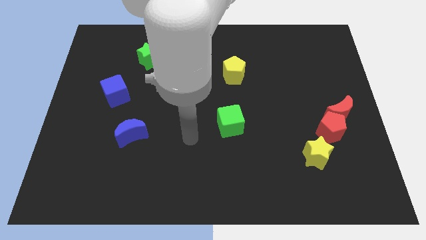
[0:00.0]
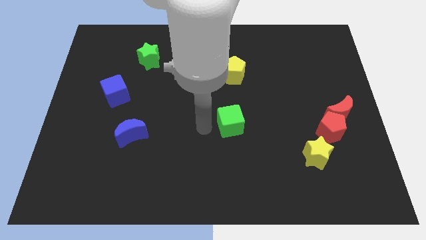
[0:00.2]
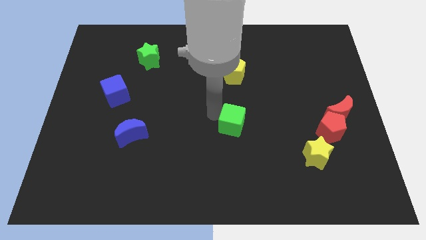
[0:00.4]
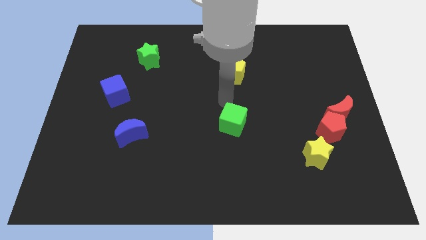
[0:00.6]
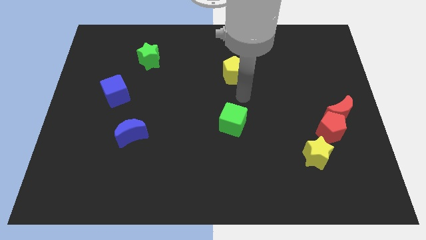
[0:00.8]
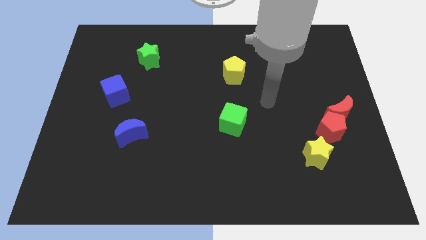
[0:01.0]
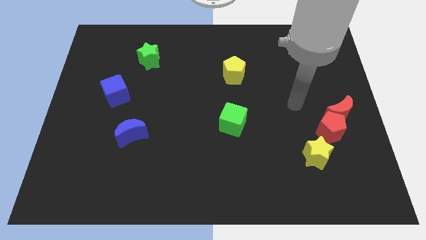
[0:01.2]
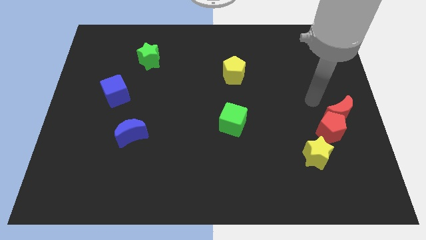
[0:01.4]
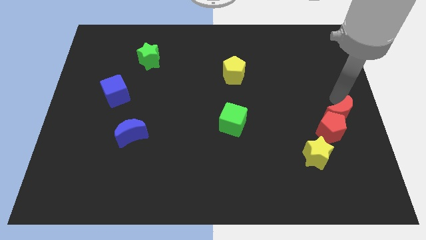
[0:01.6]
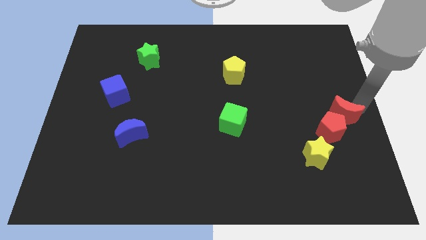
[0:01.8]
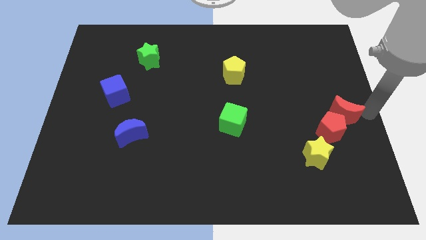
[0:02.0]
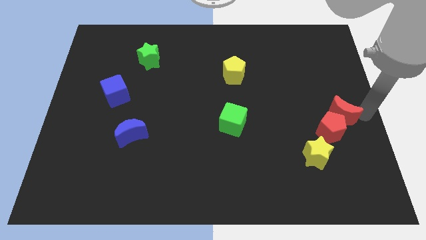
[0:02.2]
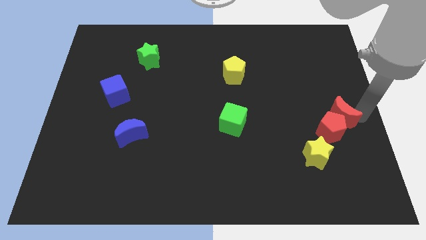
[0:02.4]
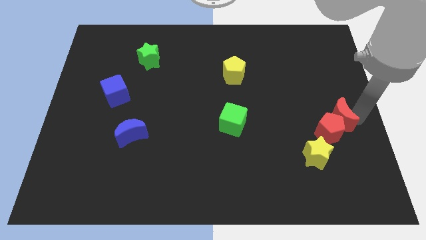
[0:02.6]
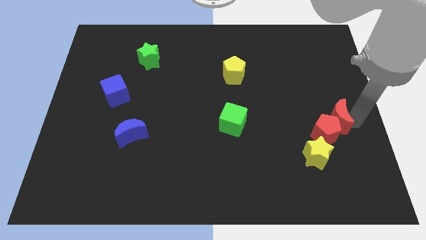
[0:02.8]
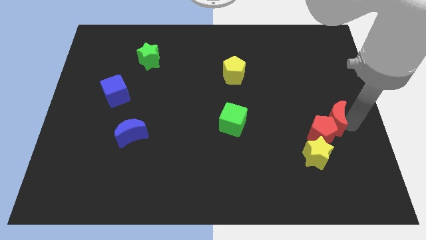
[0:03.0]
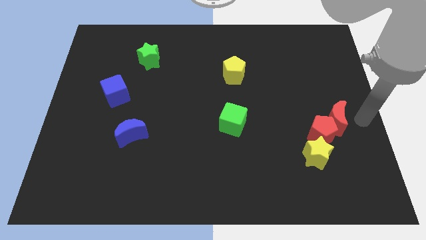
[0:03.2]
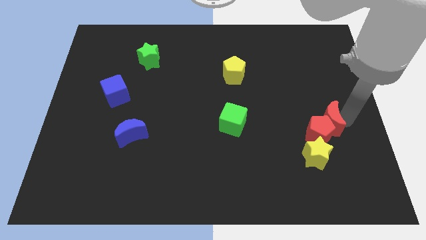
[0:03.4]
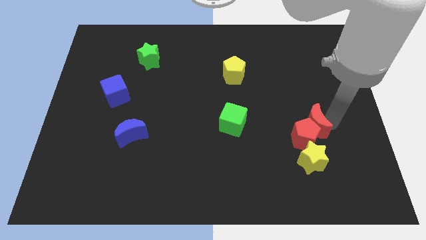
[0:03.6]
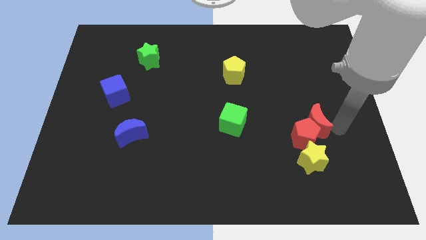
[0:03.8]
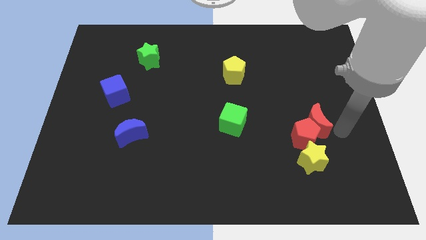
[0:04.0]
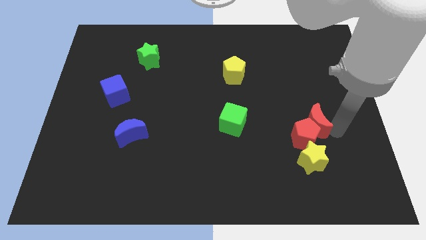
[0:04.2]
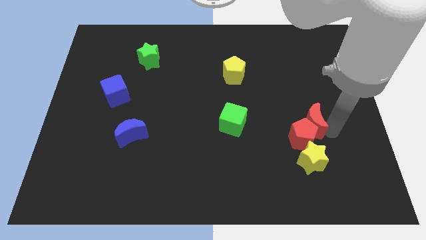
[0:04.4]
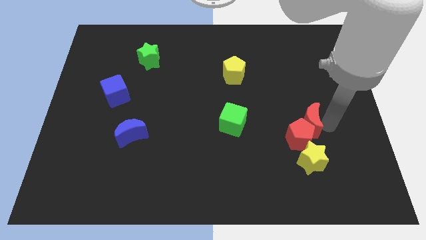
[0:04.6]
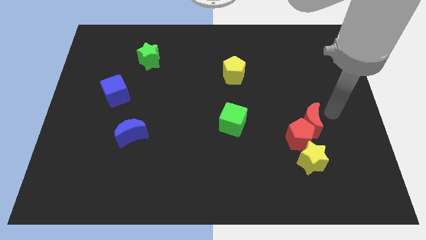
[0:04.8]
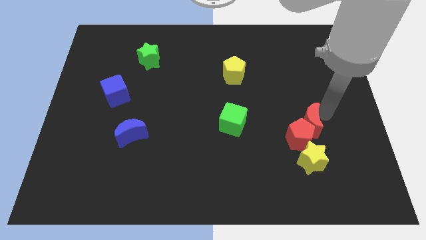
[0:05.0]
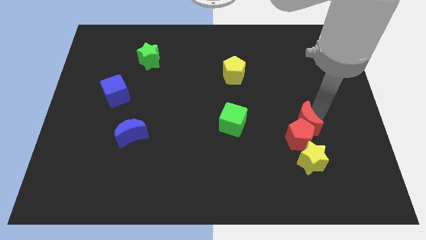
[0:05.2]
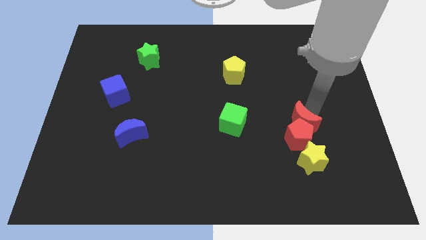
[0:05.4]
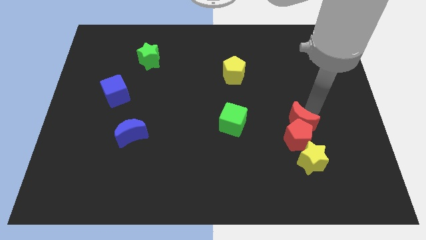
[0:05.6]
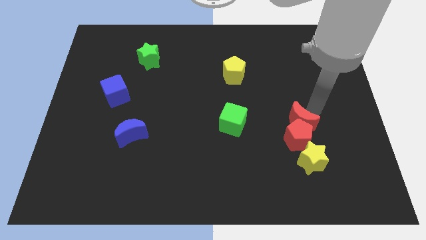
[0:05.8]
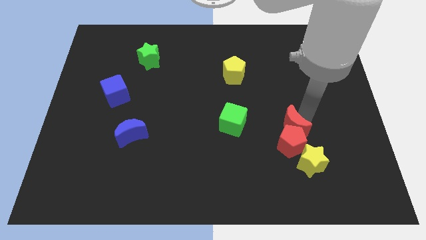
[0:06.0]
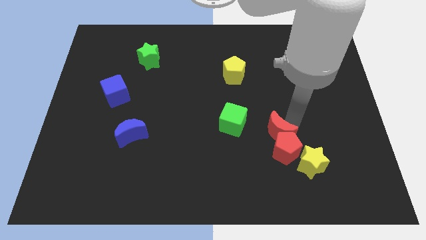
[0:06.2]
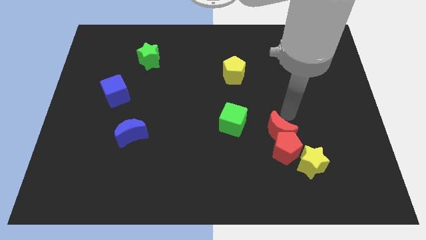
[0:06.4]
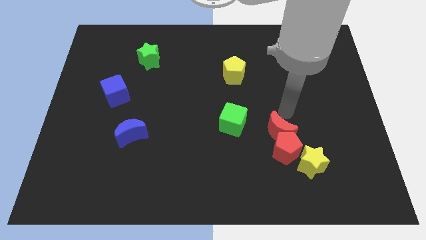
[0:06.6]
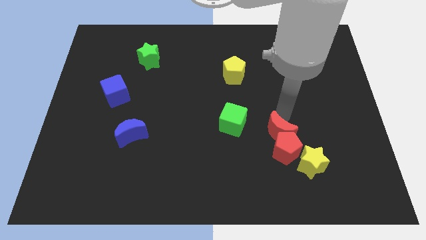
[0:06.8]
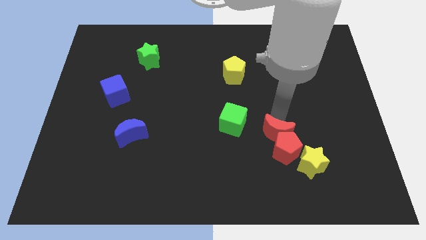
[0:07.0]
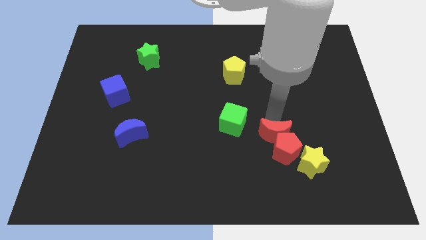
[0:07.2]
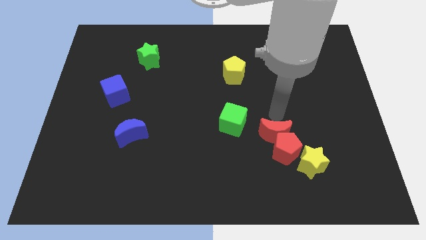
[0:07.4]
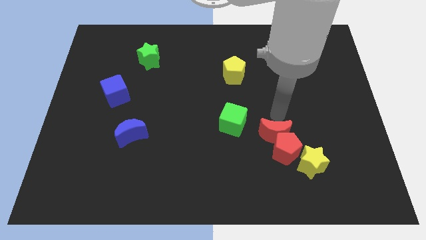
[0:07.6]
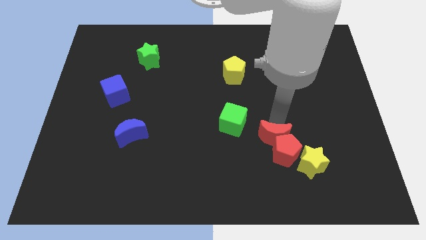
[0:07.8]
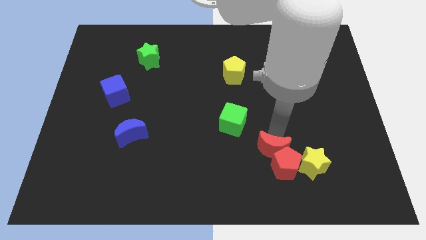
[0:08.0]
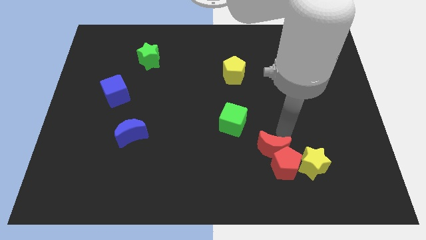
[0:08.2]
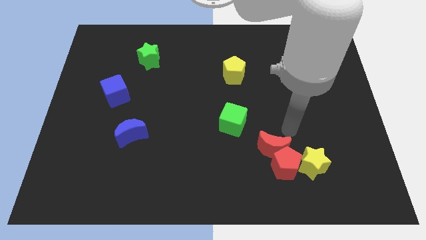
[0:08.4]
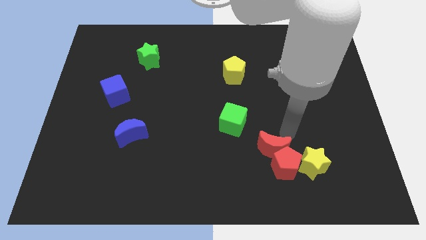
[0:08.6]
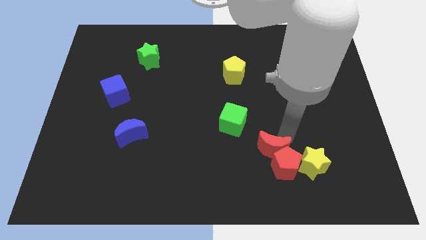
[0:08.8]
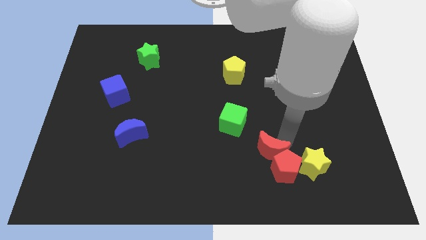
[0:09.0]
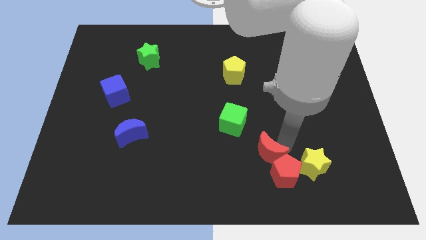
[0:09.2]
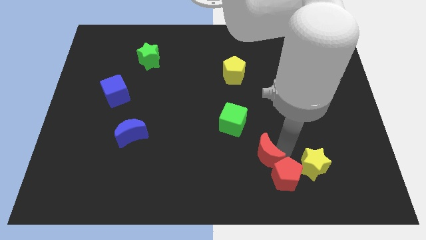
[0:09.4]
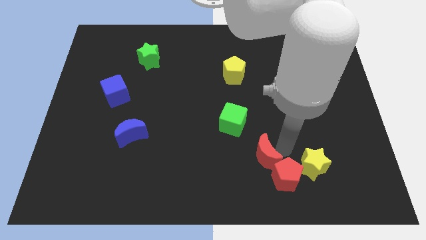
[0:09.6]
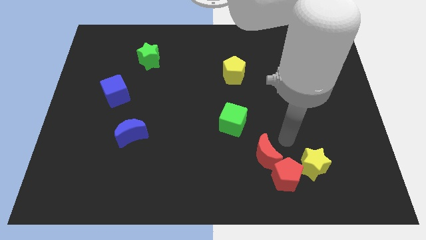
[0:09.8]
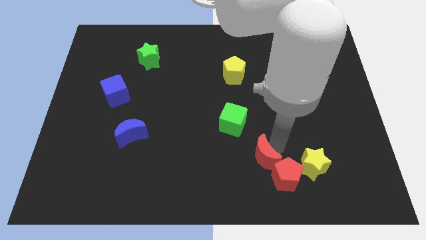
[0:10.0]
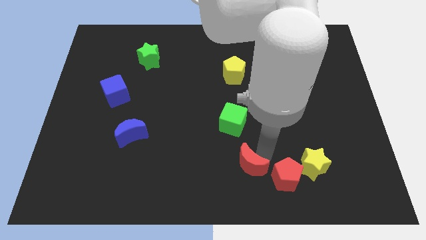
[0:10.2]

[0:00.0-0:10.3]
slide the red moon to the bottom side

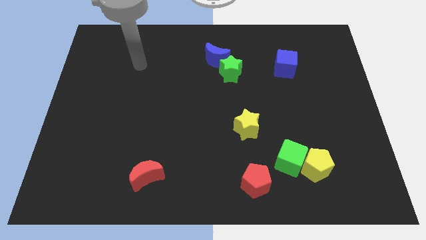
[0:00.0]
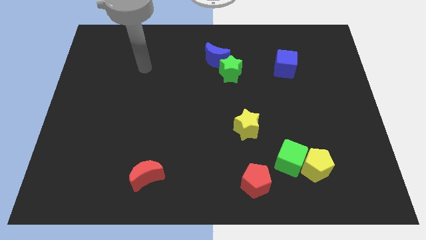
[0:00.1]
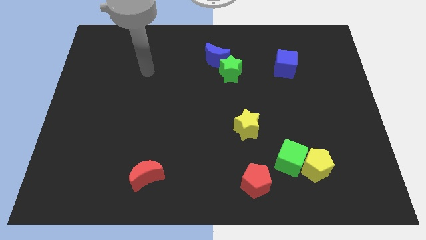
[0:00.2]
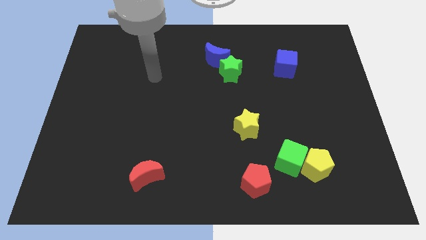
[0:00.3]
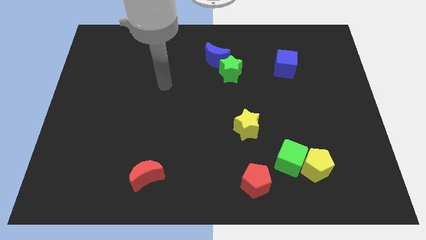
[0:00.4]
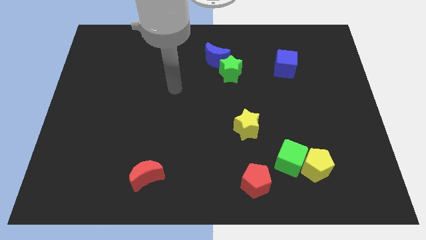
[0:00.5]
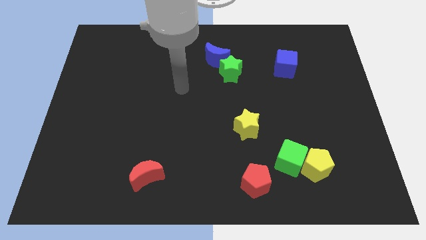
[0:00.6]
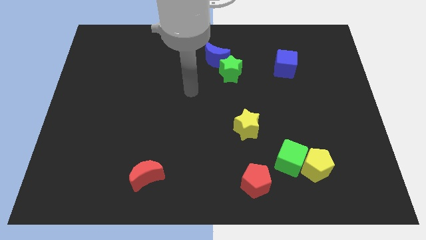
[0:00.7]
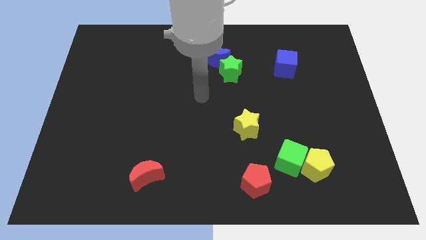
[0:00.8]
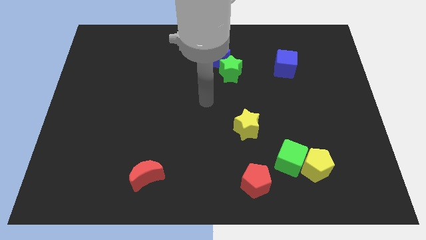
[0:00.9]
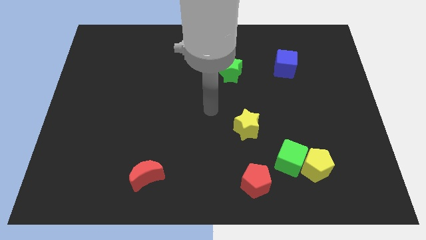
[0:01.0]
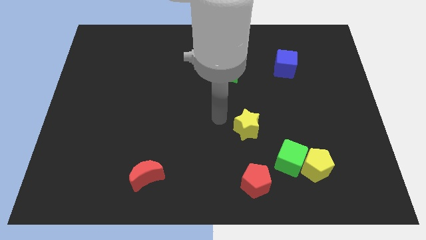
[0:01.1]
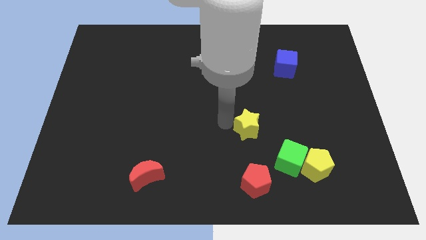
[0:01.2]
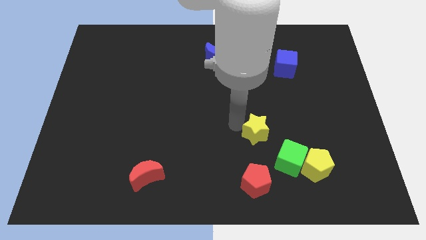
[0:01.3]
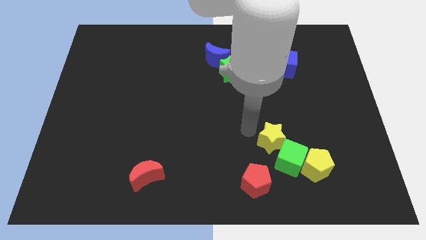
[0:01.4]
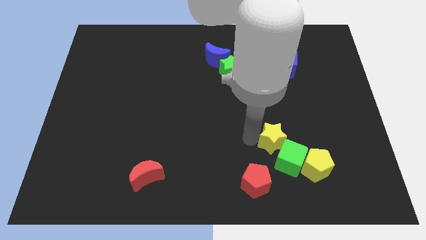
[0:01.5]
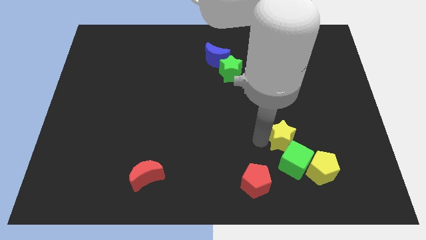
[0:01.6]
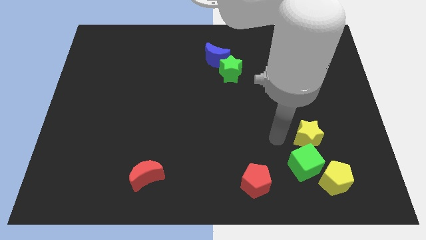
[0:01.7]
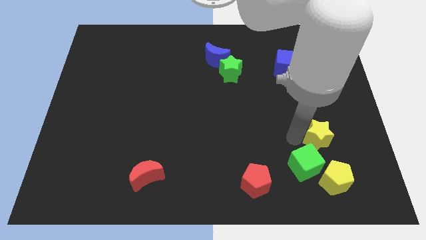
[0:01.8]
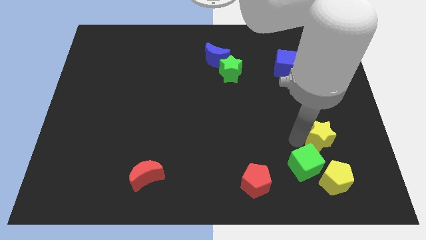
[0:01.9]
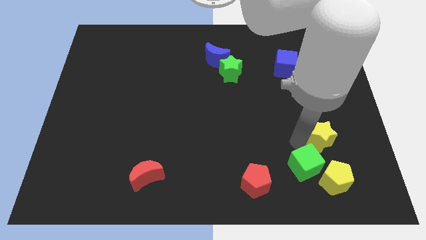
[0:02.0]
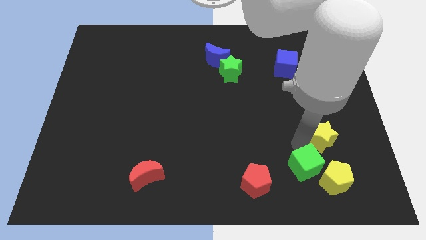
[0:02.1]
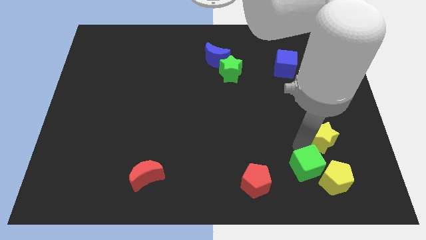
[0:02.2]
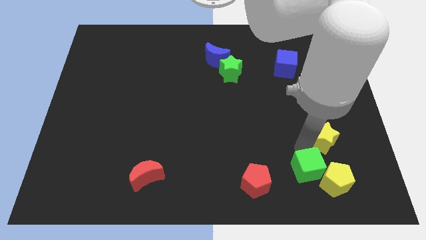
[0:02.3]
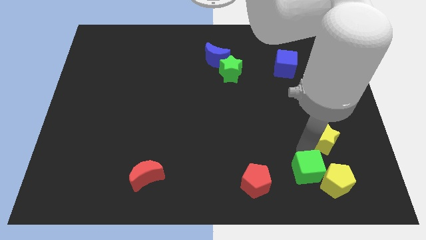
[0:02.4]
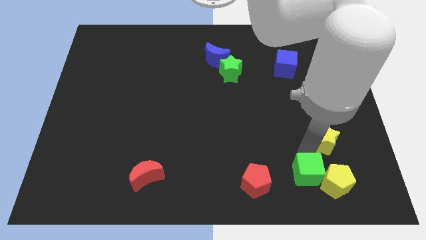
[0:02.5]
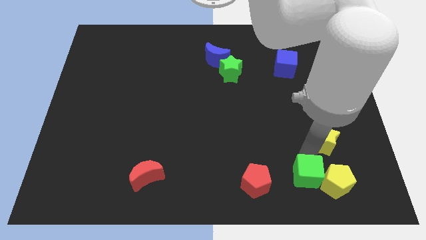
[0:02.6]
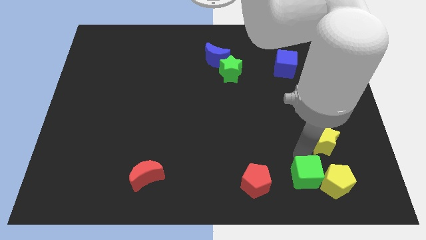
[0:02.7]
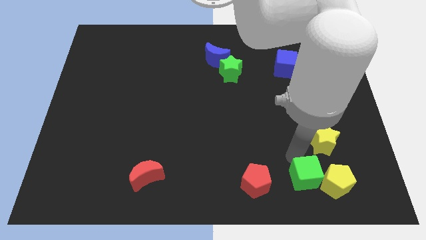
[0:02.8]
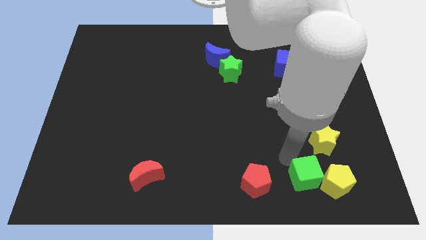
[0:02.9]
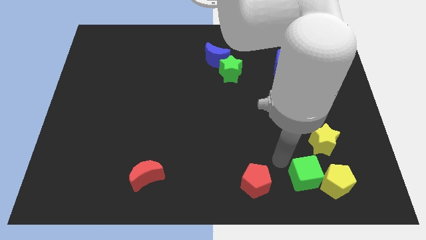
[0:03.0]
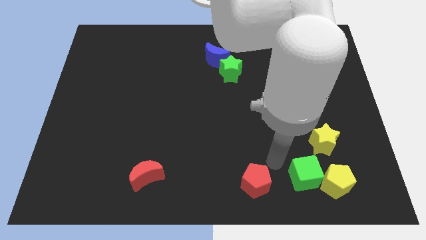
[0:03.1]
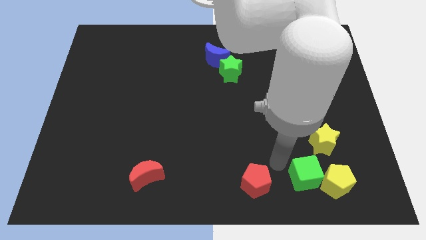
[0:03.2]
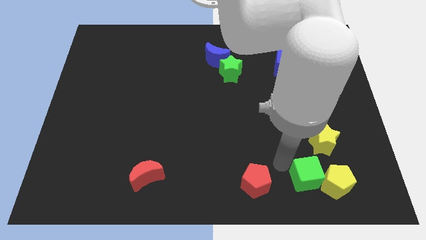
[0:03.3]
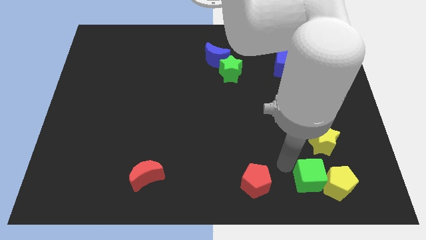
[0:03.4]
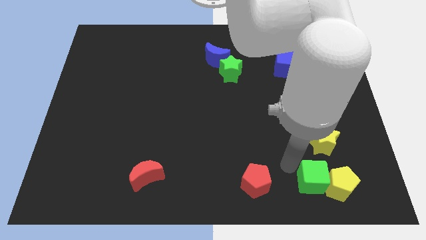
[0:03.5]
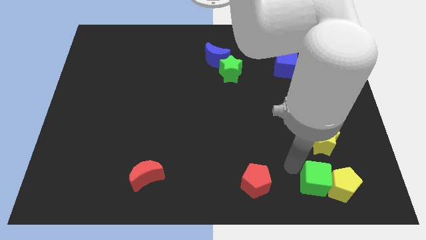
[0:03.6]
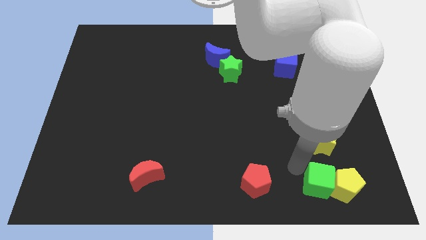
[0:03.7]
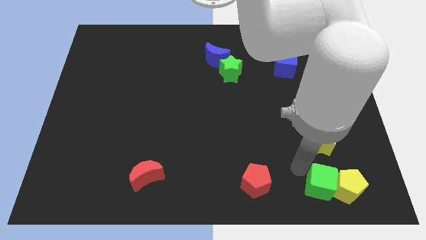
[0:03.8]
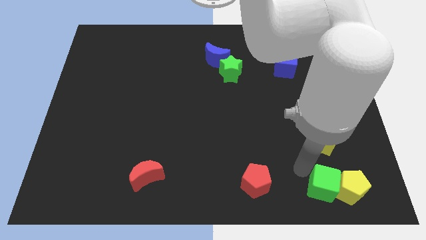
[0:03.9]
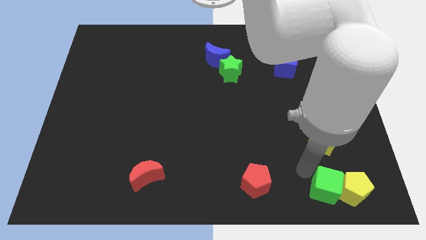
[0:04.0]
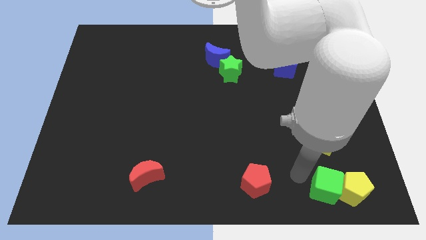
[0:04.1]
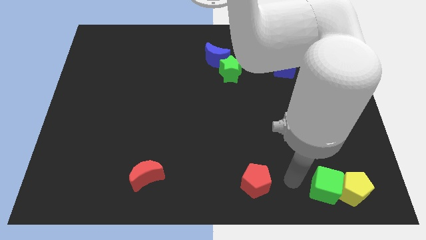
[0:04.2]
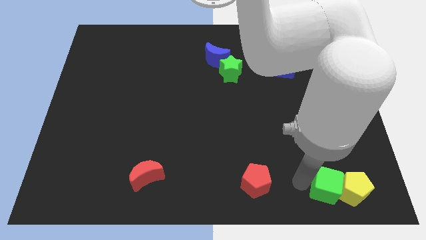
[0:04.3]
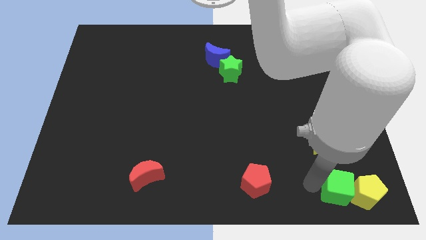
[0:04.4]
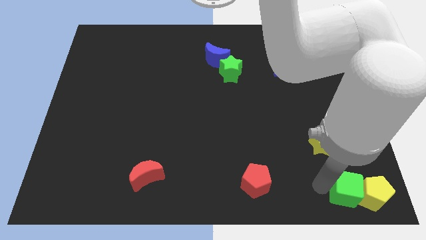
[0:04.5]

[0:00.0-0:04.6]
push the green cube to the lower right corner
